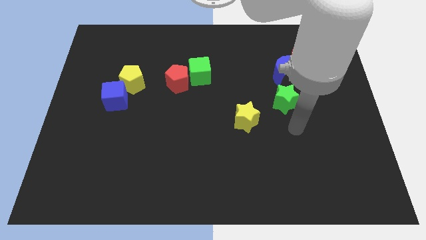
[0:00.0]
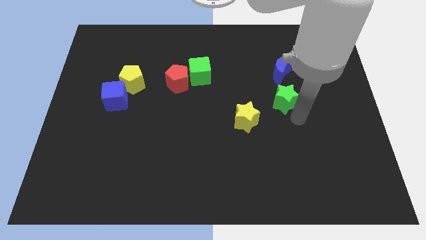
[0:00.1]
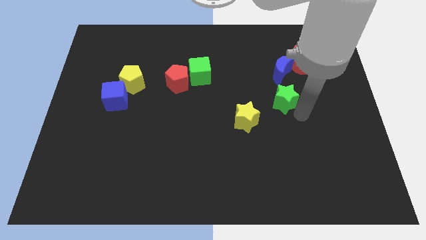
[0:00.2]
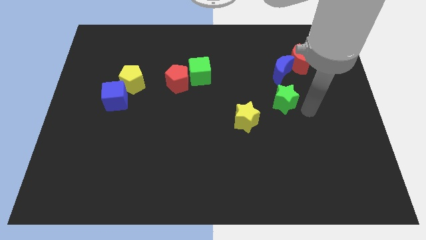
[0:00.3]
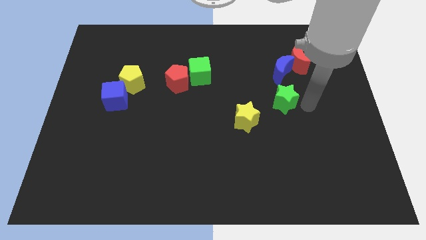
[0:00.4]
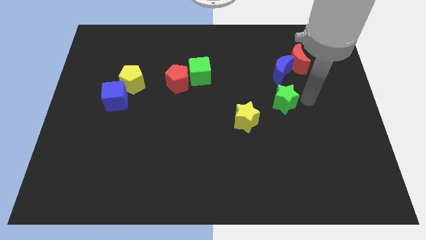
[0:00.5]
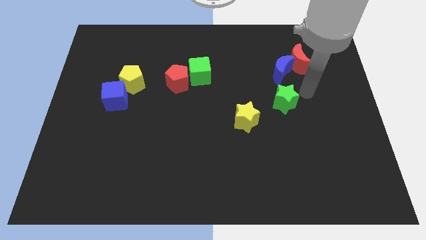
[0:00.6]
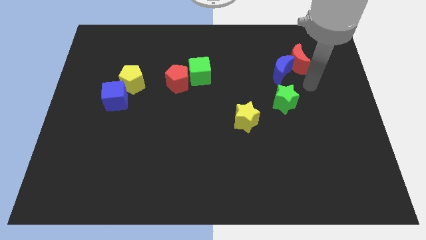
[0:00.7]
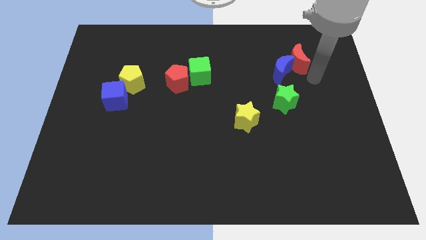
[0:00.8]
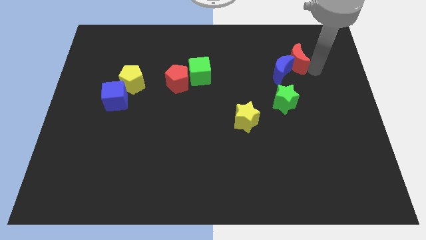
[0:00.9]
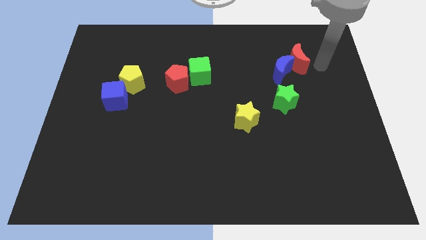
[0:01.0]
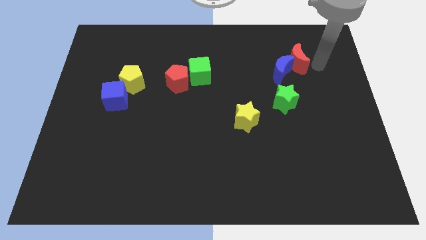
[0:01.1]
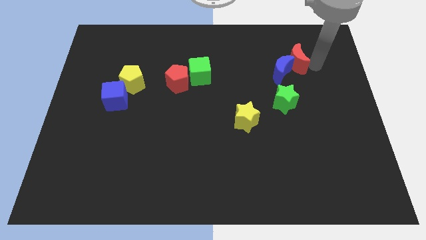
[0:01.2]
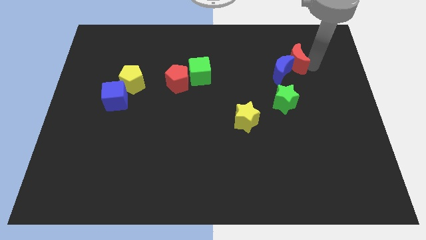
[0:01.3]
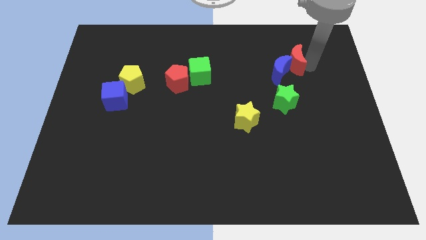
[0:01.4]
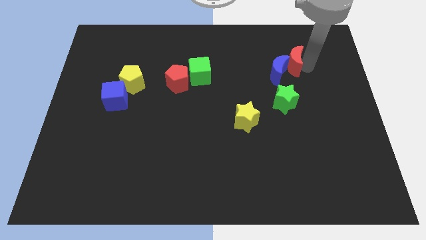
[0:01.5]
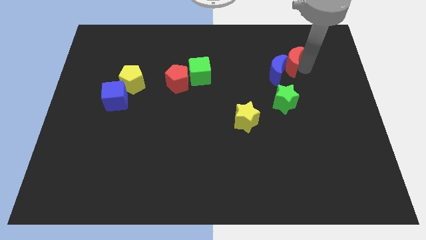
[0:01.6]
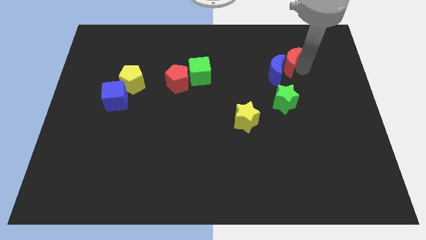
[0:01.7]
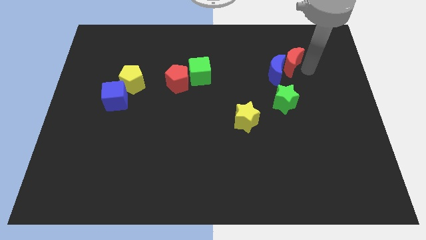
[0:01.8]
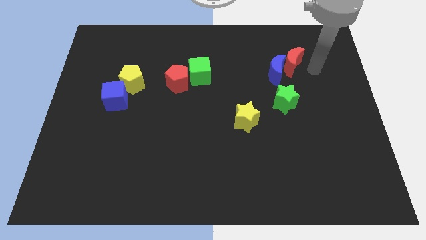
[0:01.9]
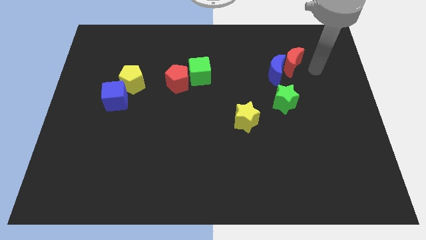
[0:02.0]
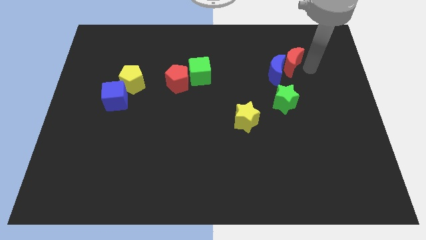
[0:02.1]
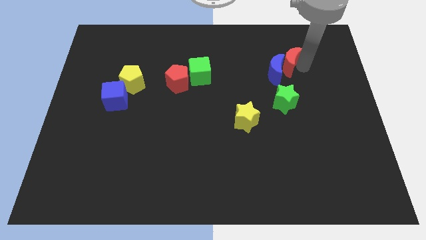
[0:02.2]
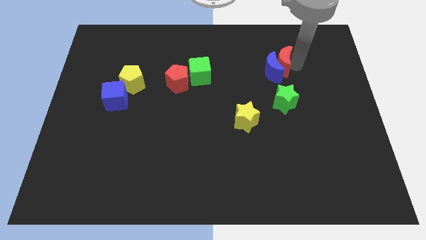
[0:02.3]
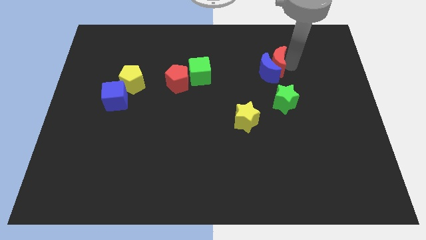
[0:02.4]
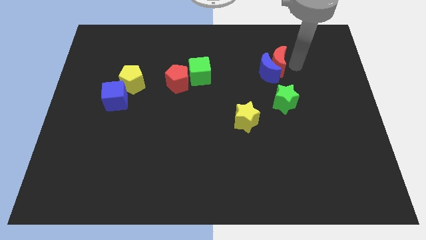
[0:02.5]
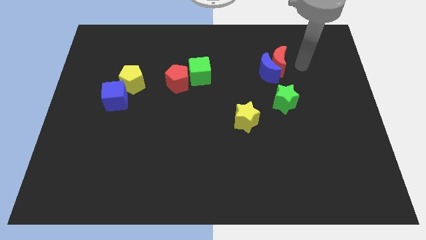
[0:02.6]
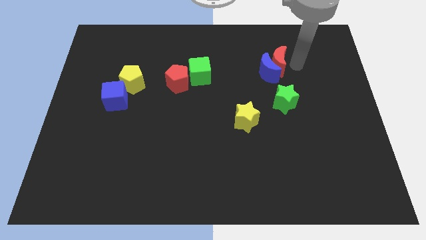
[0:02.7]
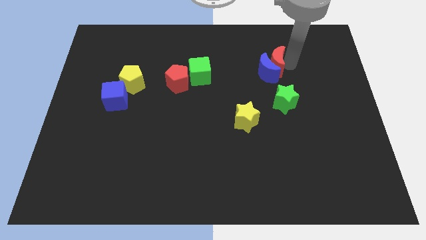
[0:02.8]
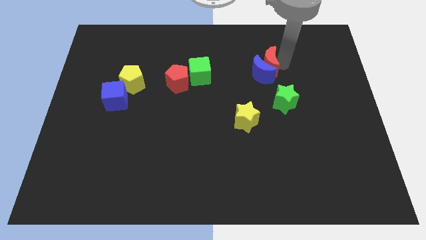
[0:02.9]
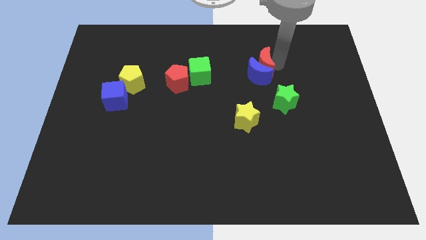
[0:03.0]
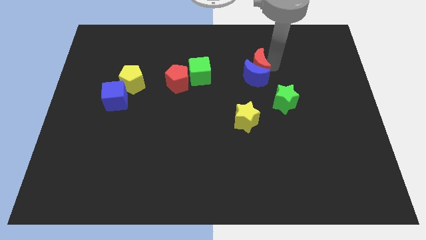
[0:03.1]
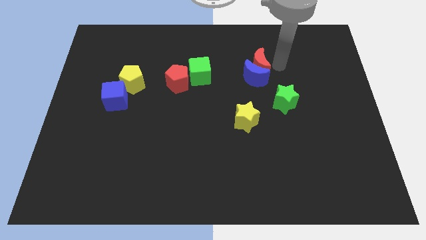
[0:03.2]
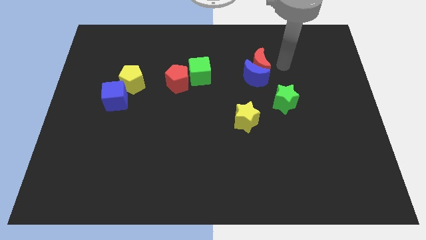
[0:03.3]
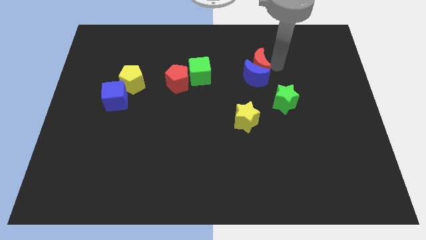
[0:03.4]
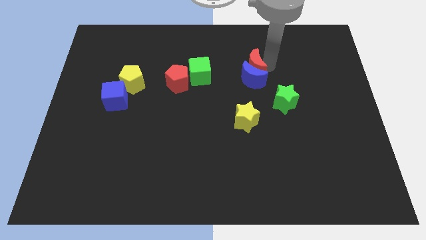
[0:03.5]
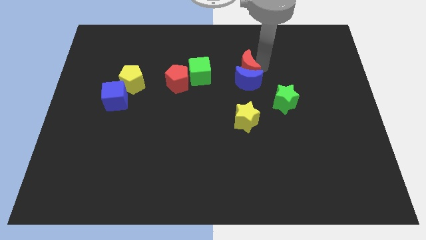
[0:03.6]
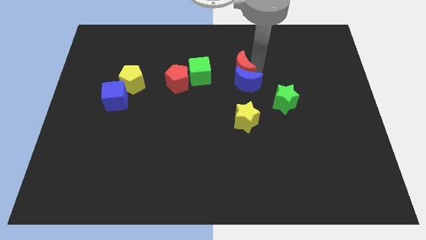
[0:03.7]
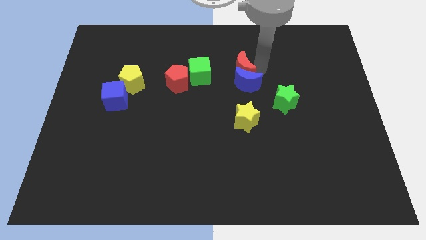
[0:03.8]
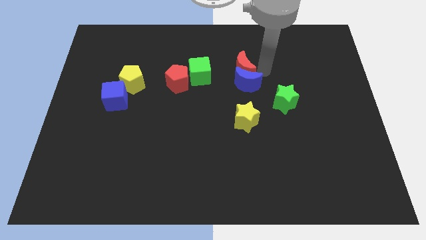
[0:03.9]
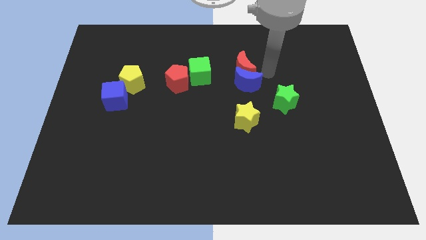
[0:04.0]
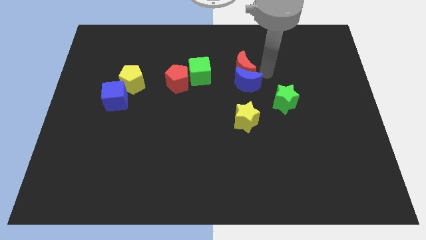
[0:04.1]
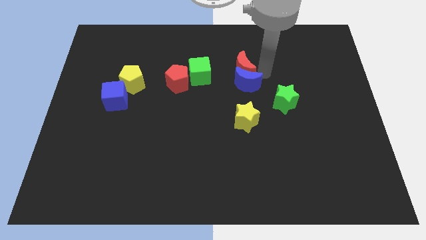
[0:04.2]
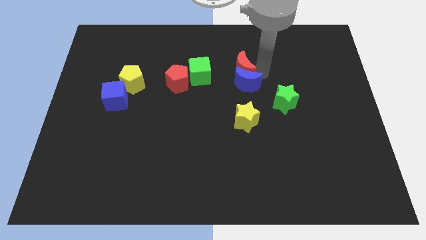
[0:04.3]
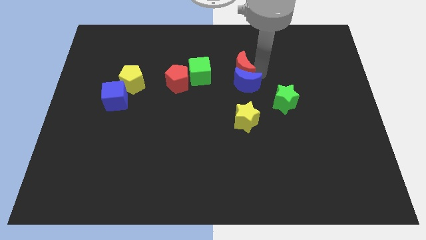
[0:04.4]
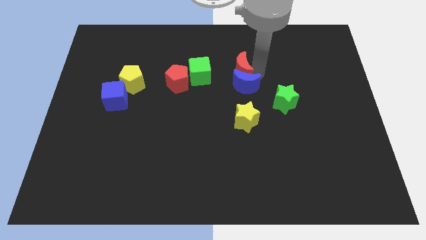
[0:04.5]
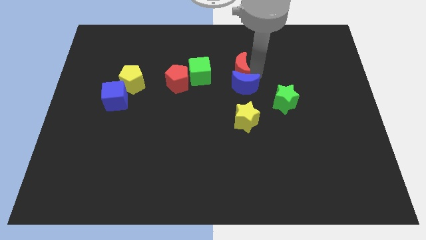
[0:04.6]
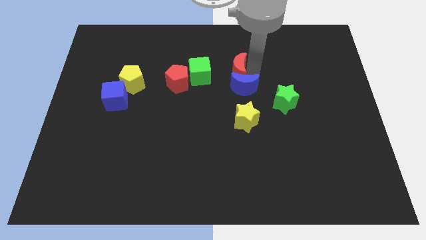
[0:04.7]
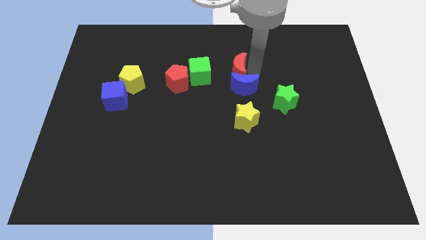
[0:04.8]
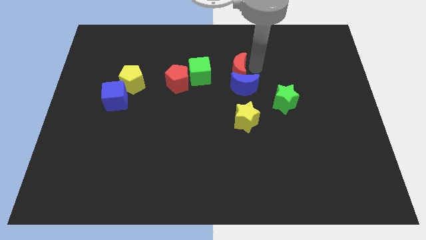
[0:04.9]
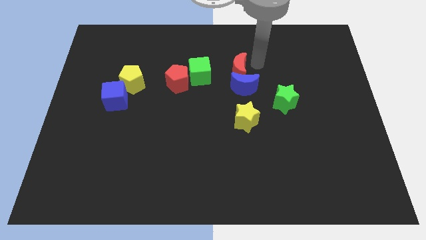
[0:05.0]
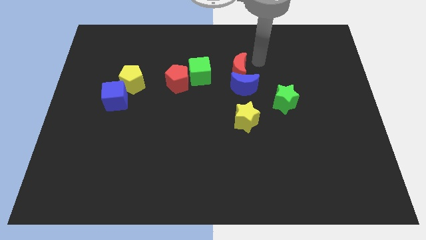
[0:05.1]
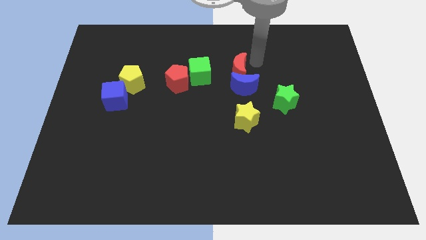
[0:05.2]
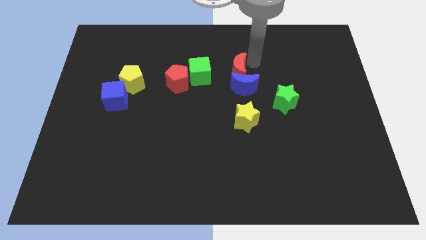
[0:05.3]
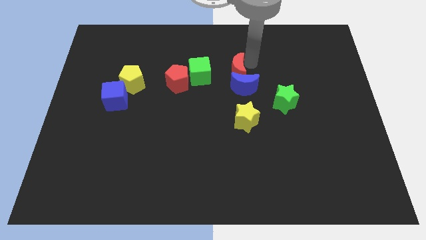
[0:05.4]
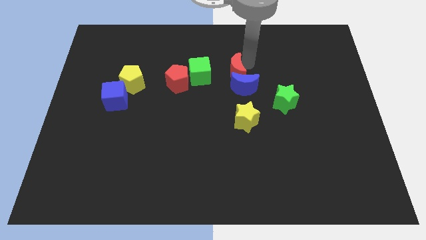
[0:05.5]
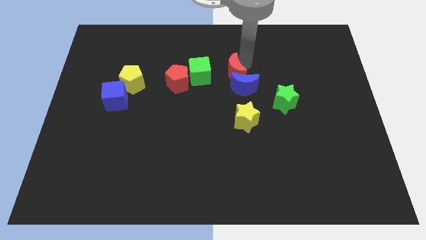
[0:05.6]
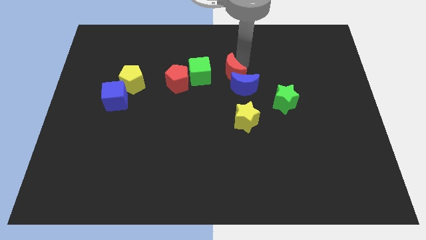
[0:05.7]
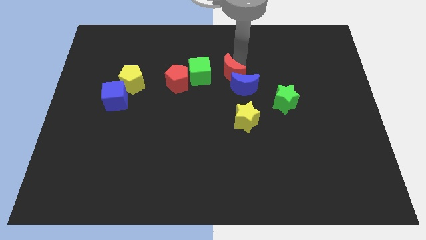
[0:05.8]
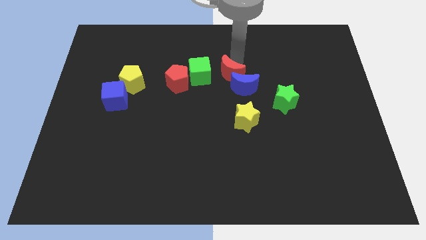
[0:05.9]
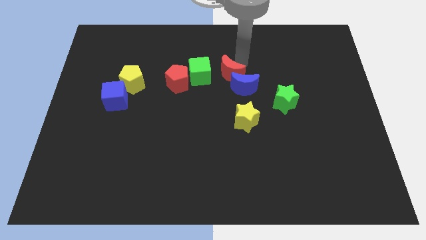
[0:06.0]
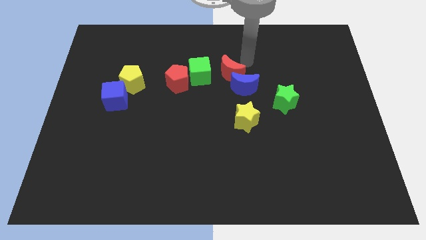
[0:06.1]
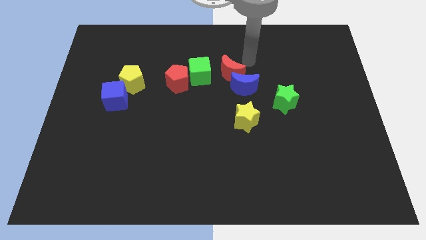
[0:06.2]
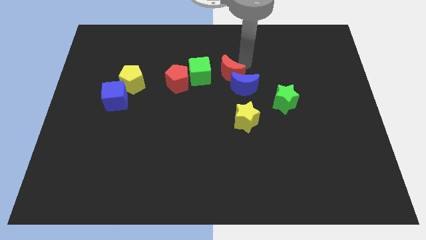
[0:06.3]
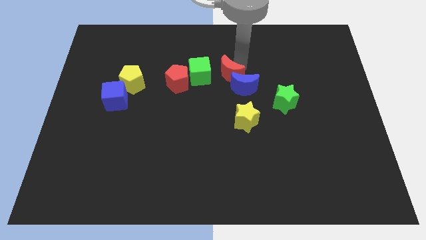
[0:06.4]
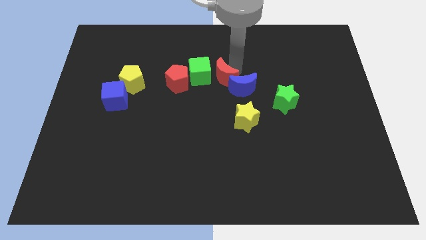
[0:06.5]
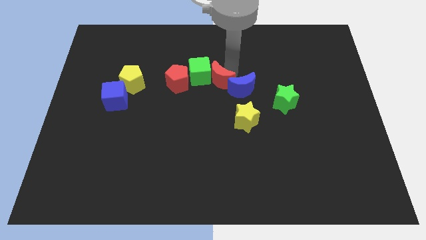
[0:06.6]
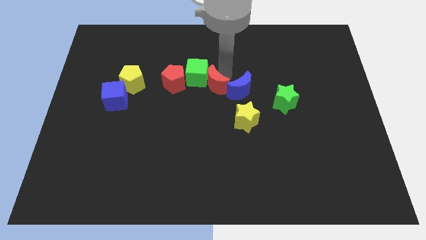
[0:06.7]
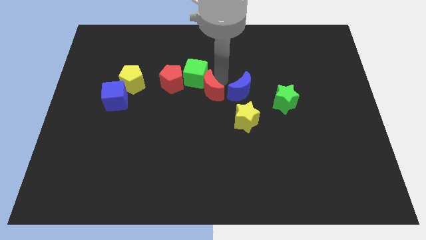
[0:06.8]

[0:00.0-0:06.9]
put the red moon diagonally down and to the right of the red pentagon
